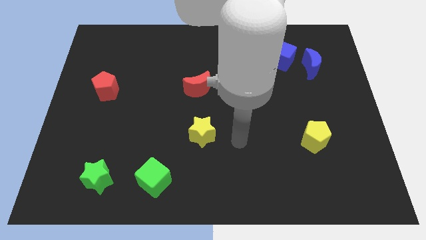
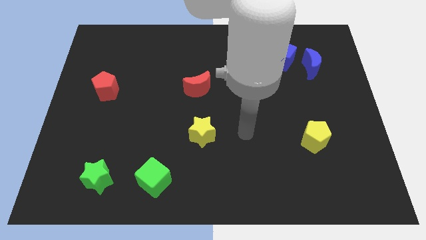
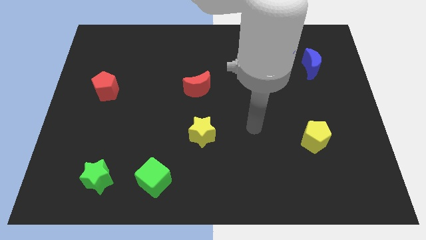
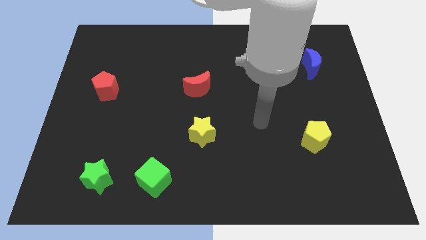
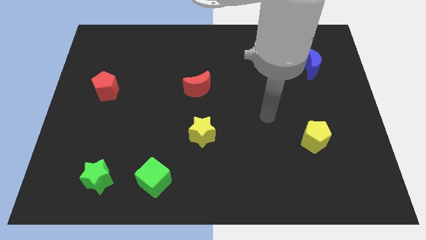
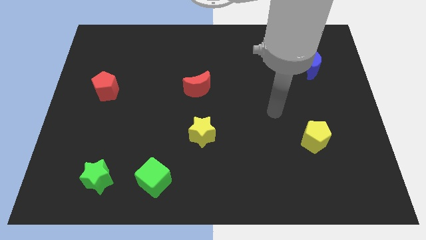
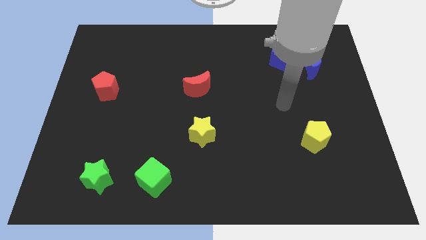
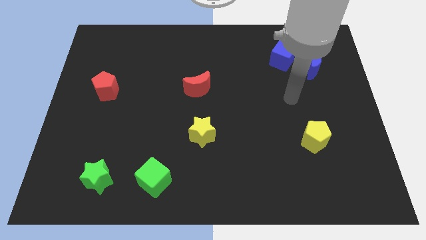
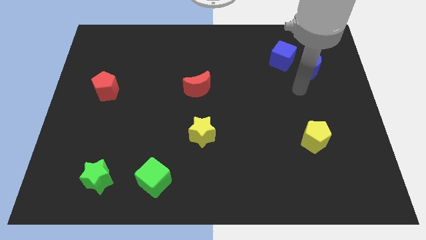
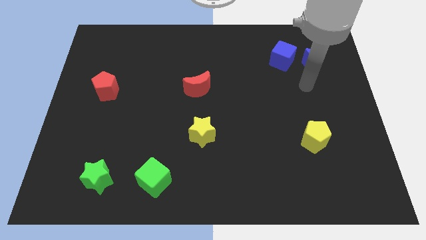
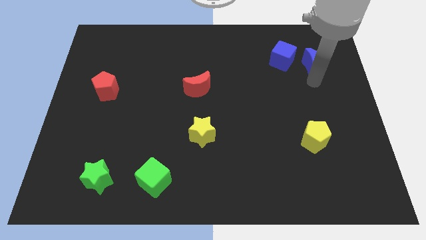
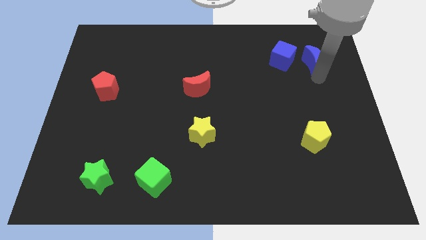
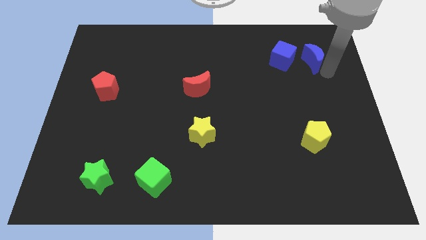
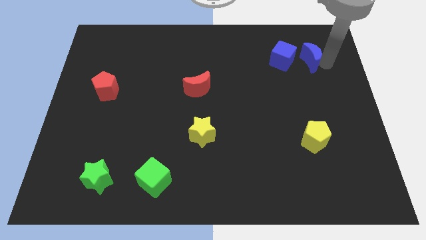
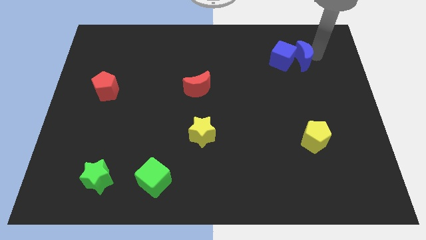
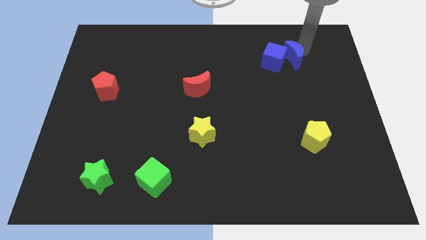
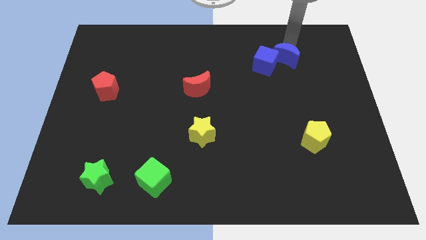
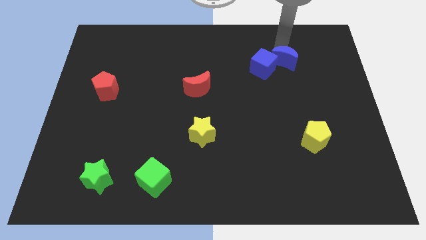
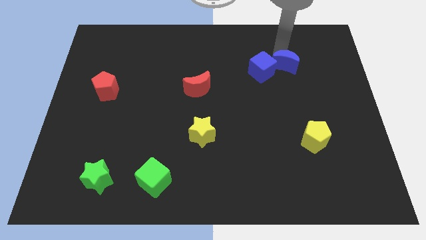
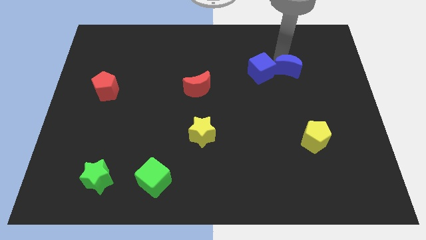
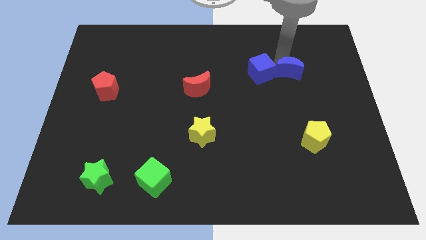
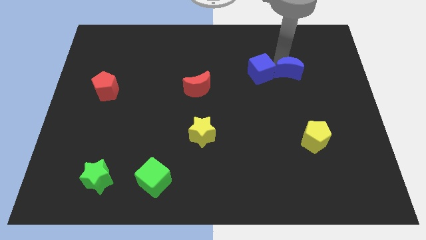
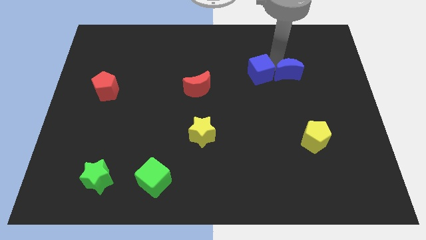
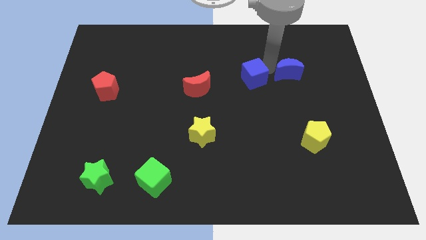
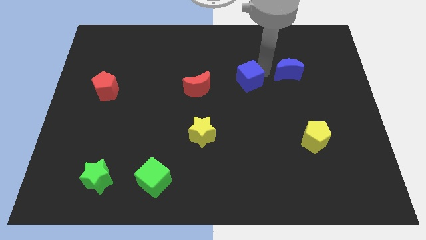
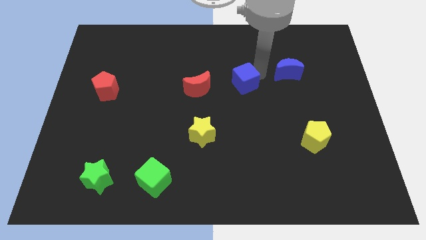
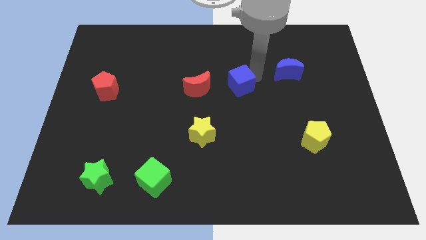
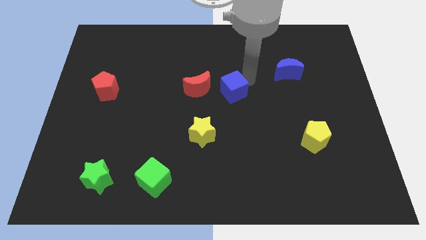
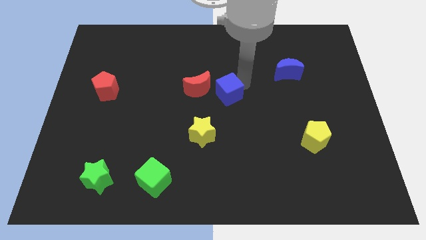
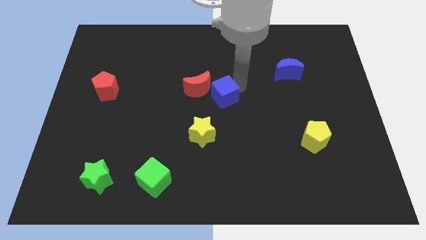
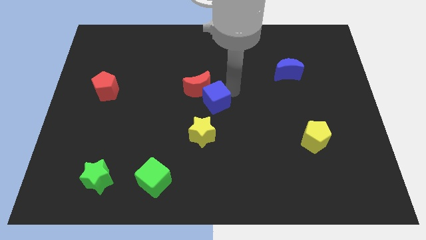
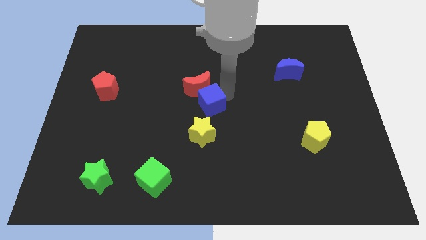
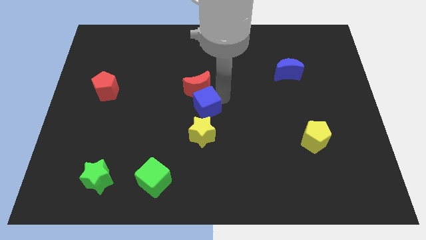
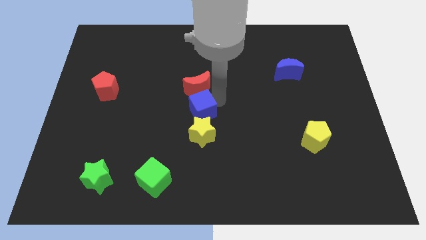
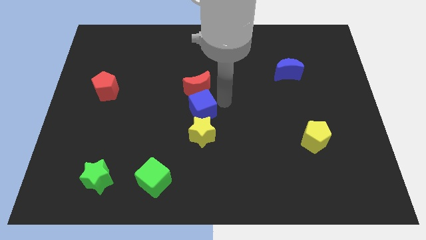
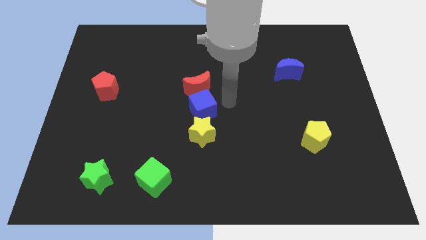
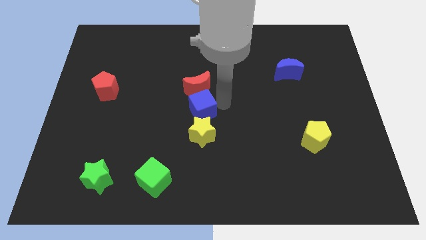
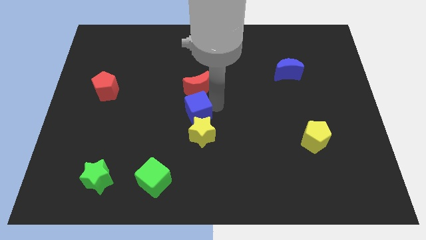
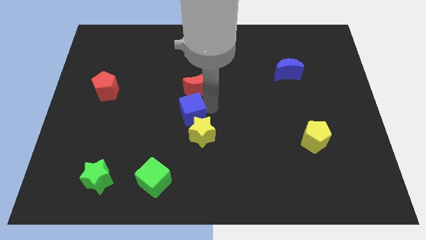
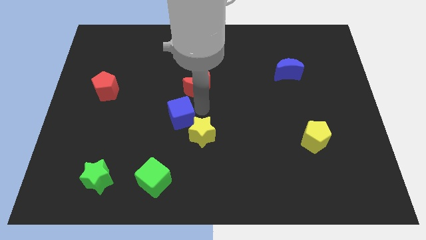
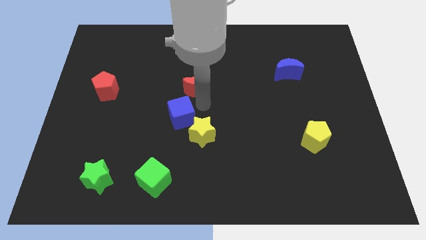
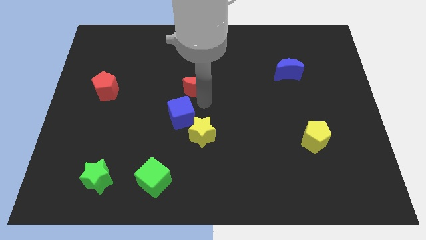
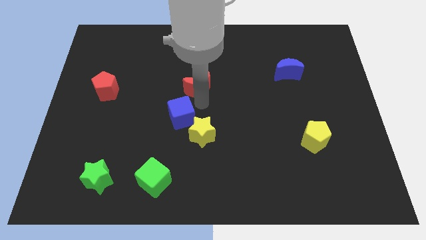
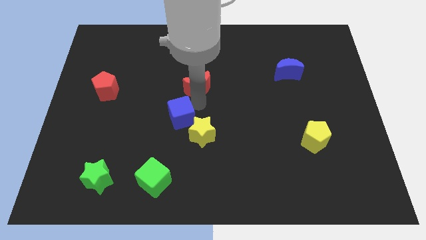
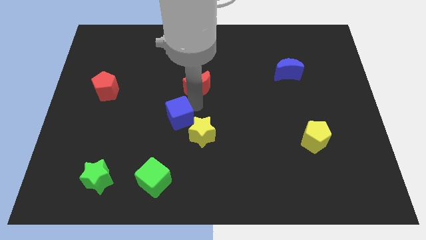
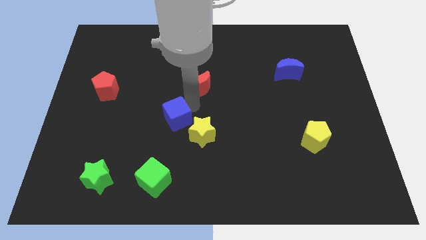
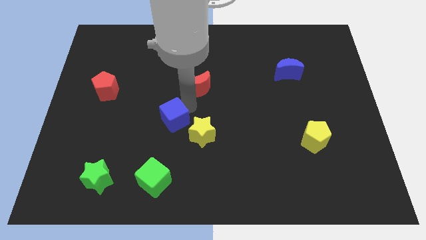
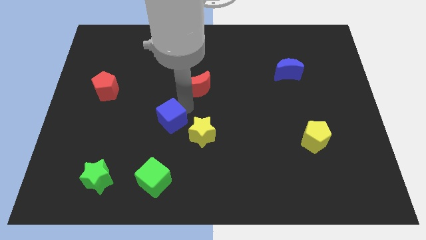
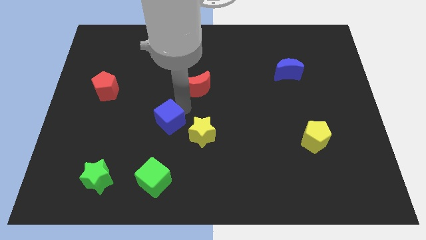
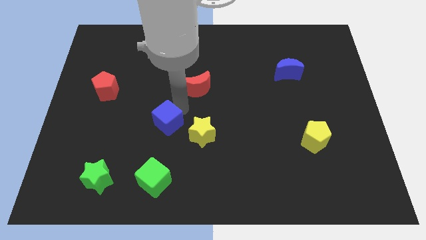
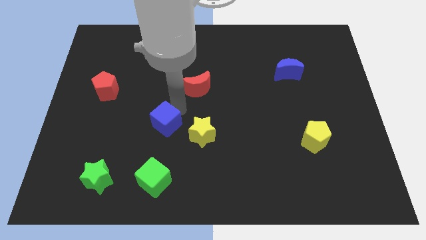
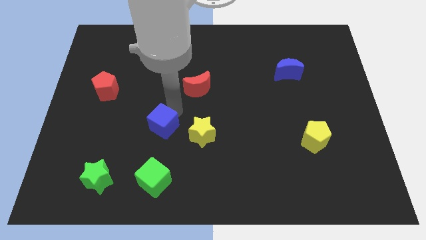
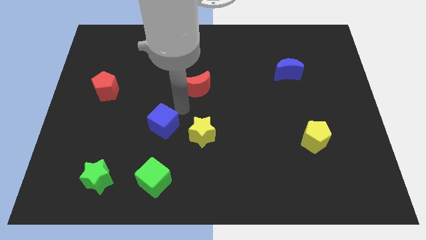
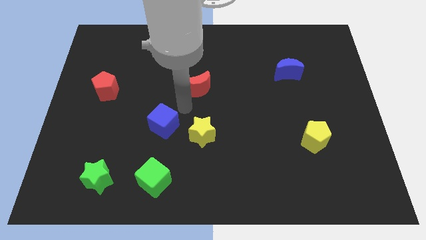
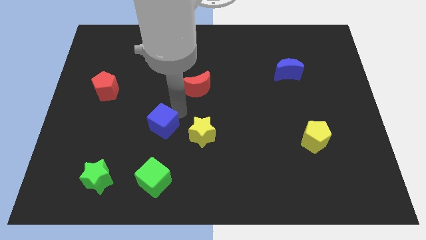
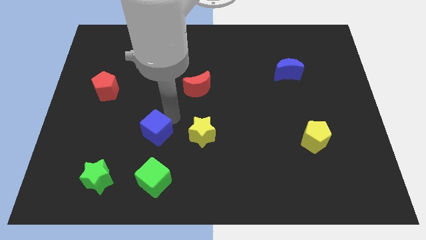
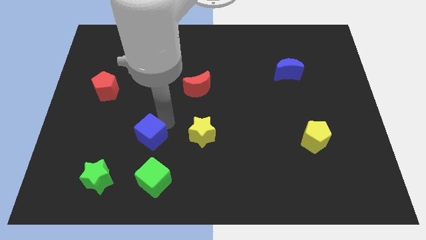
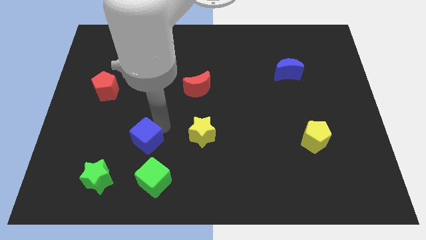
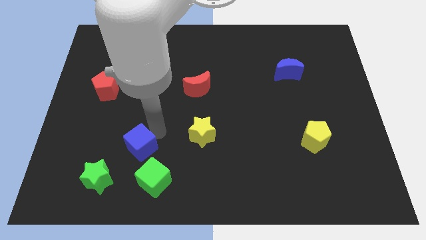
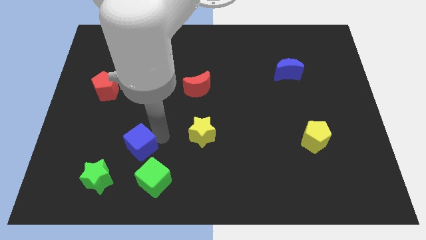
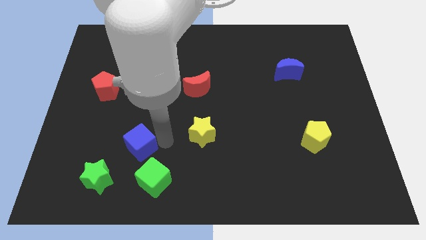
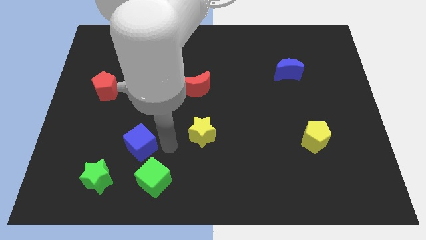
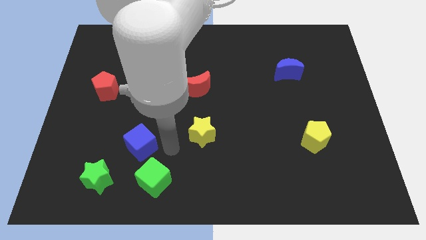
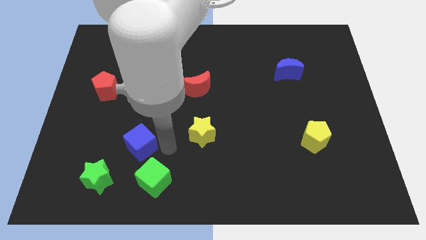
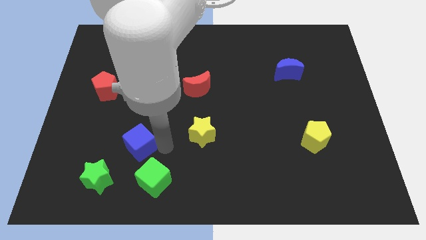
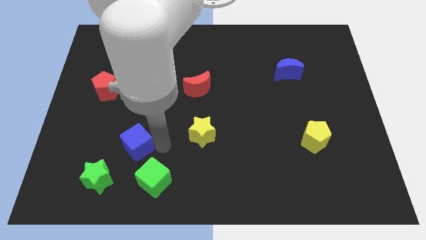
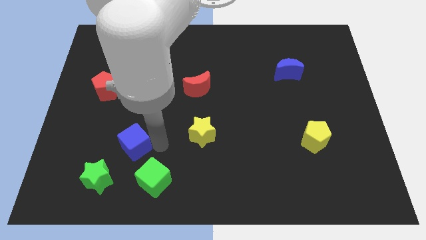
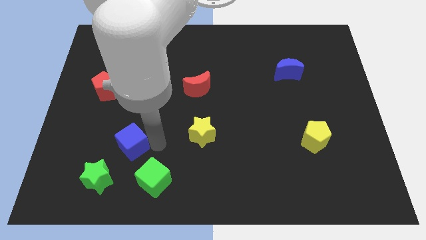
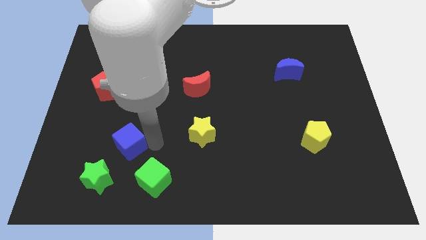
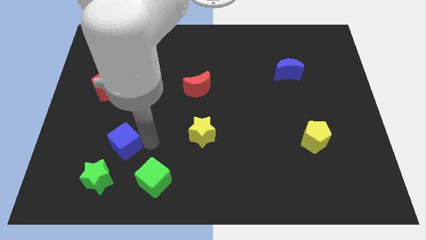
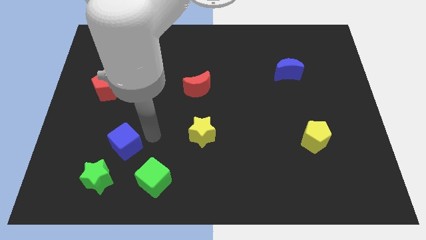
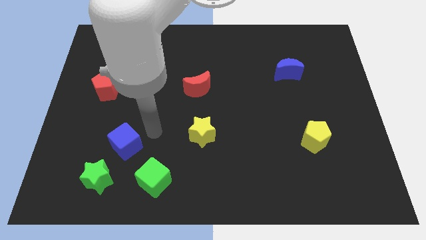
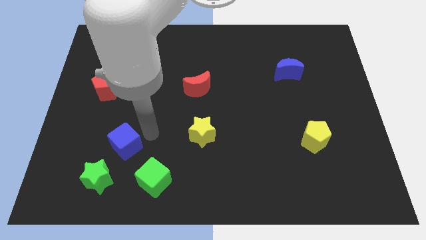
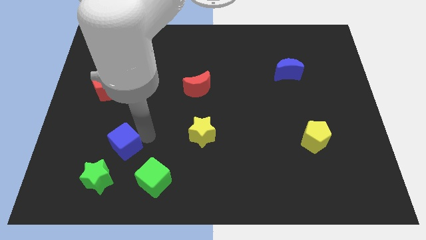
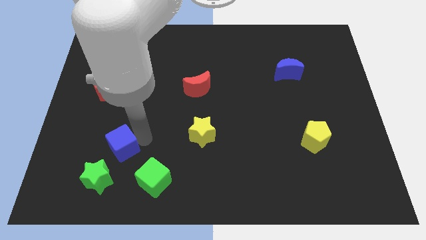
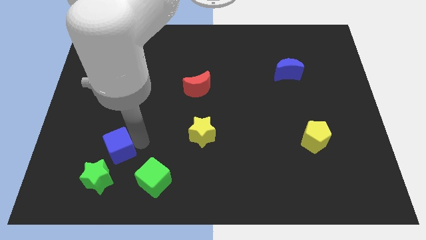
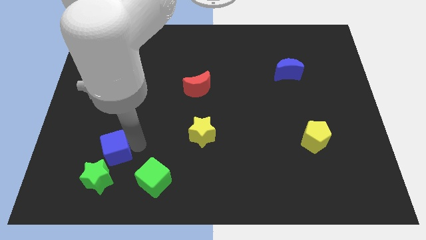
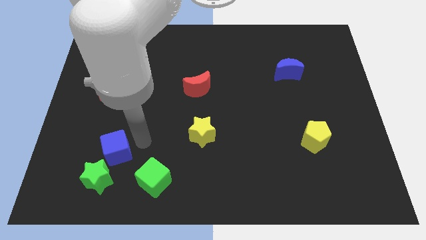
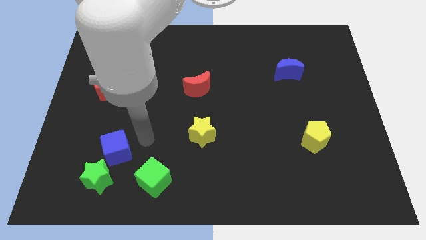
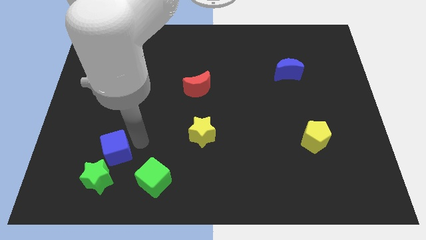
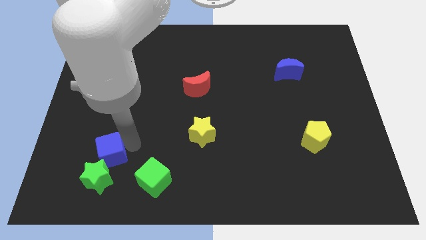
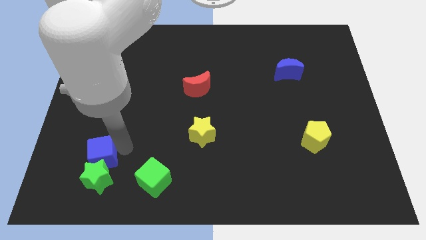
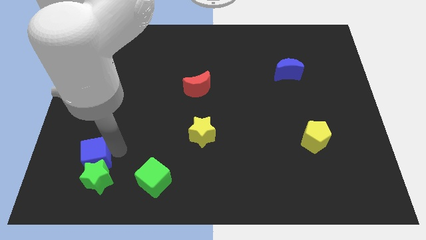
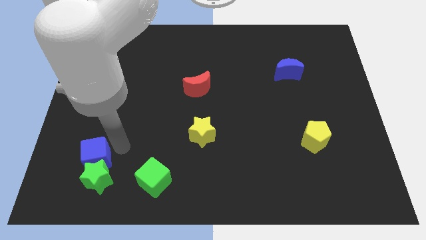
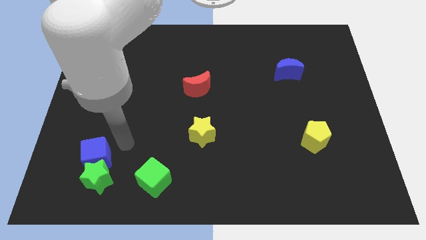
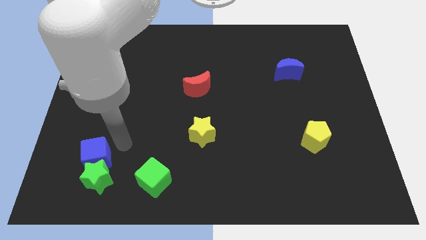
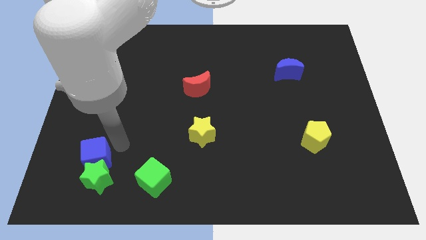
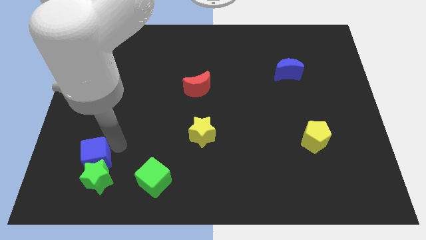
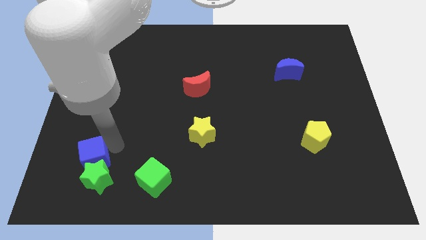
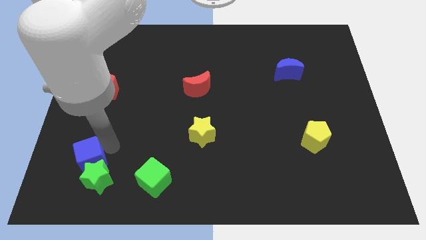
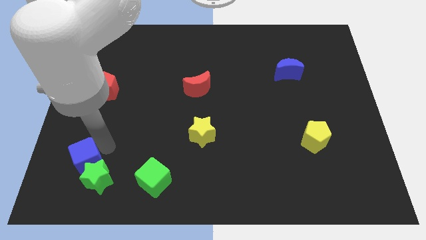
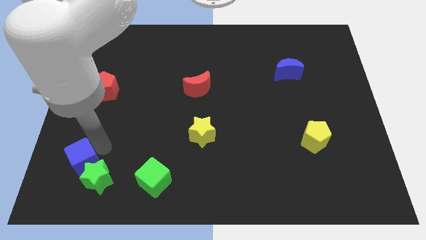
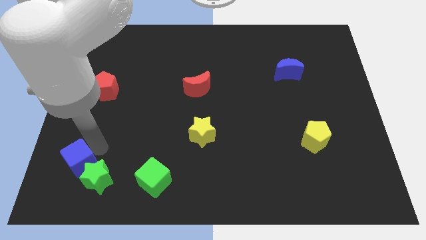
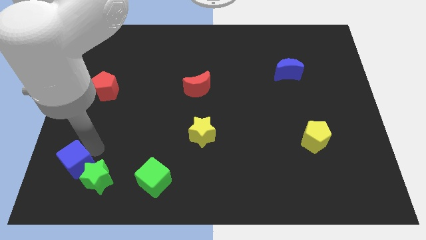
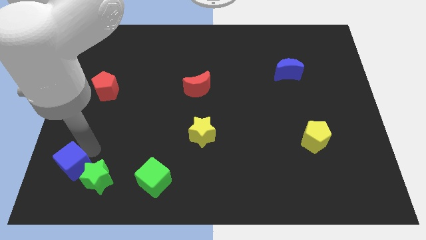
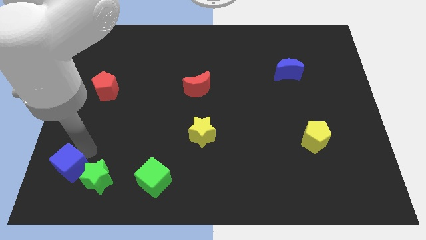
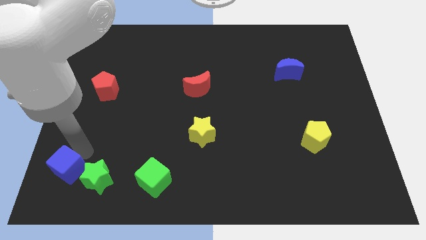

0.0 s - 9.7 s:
slide the blue cube to the bottom left corner
